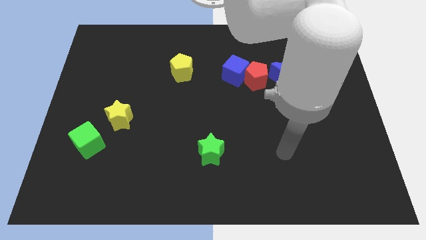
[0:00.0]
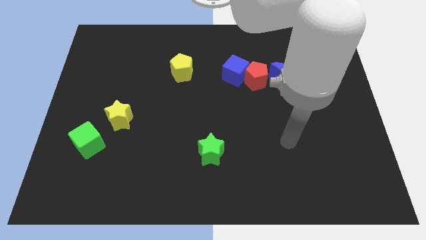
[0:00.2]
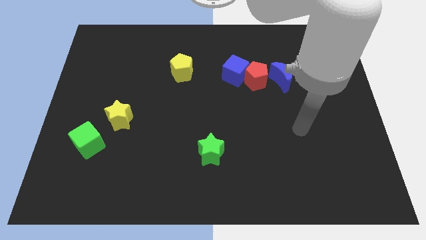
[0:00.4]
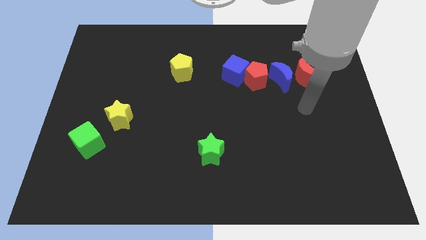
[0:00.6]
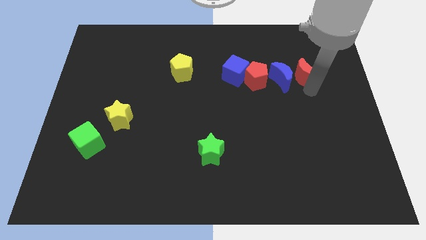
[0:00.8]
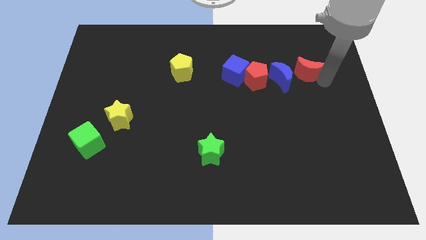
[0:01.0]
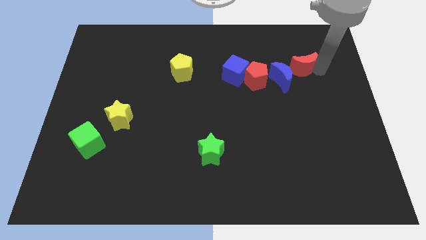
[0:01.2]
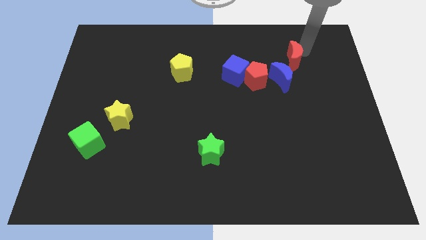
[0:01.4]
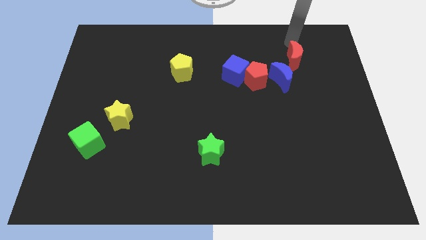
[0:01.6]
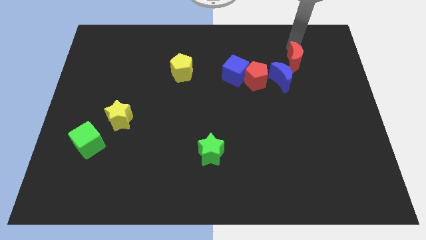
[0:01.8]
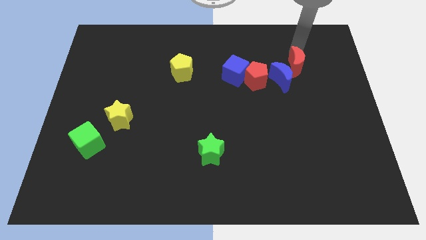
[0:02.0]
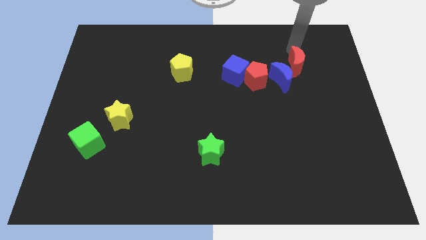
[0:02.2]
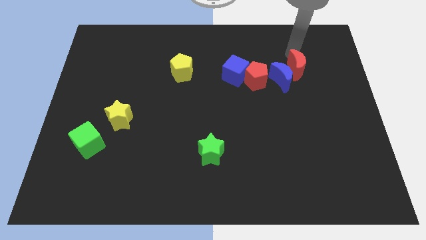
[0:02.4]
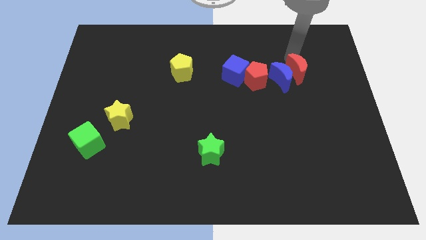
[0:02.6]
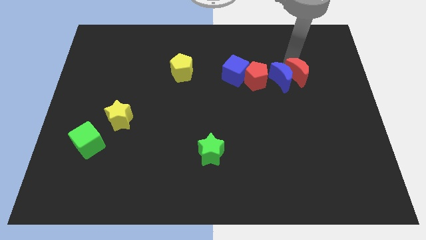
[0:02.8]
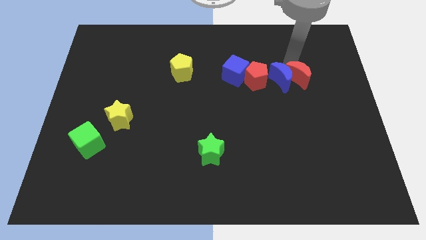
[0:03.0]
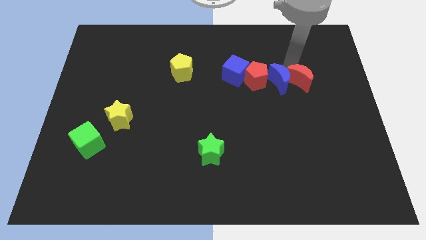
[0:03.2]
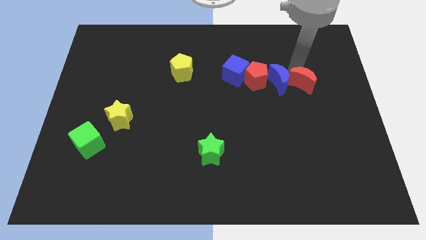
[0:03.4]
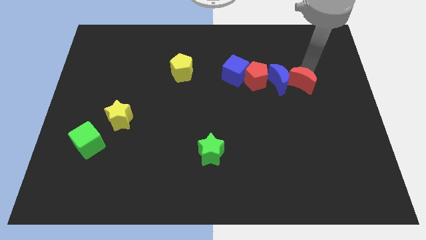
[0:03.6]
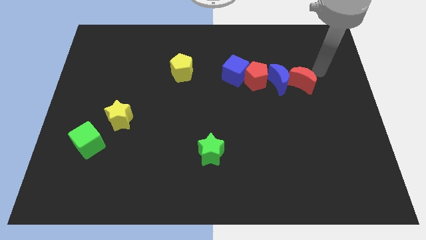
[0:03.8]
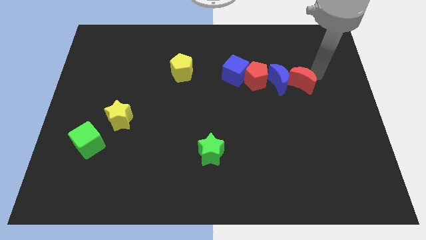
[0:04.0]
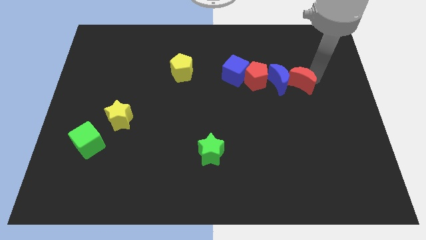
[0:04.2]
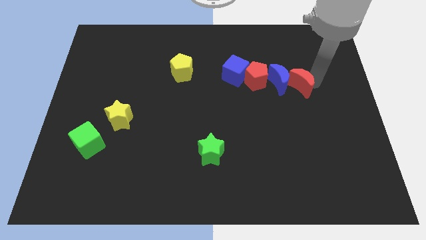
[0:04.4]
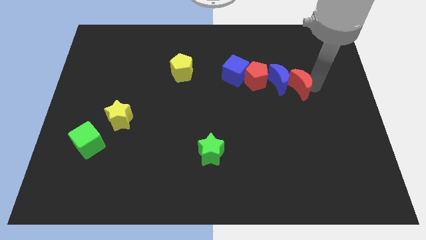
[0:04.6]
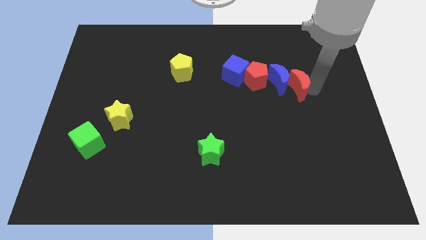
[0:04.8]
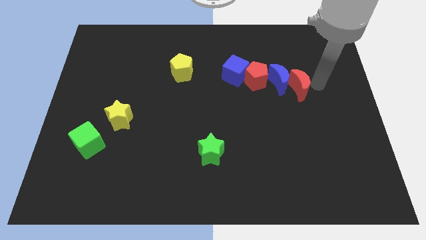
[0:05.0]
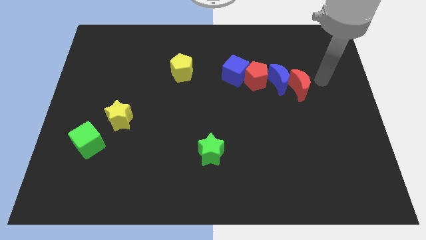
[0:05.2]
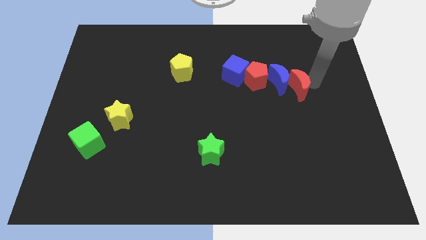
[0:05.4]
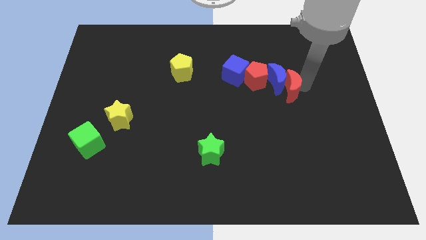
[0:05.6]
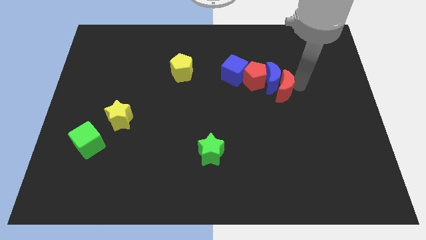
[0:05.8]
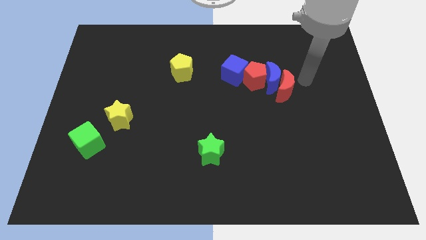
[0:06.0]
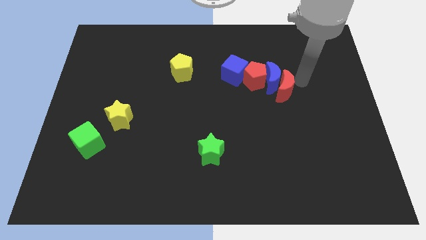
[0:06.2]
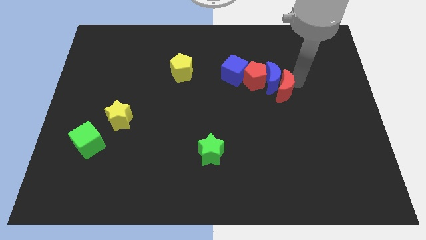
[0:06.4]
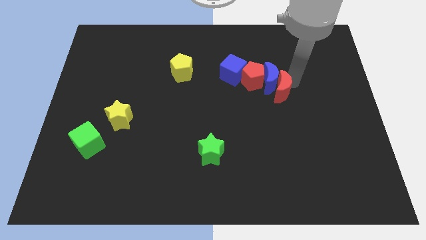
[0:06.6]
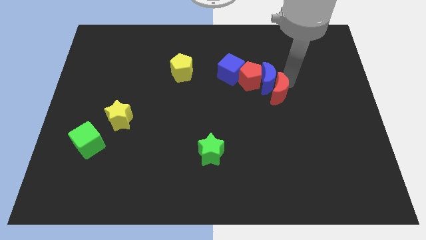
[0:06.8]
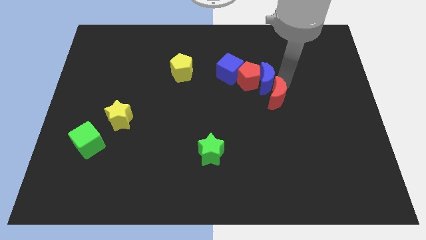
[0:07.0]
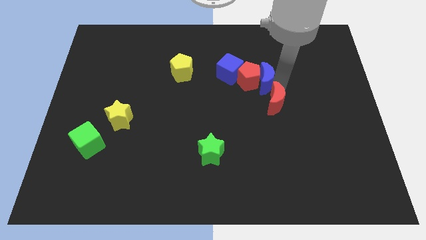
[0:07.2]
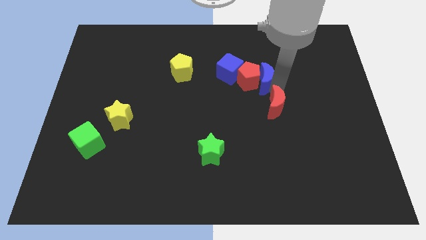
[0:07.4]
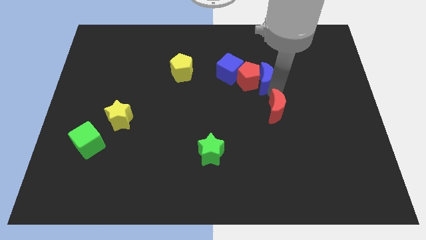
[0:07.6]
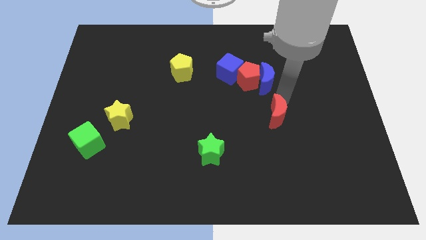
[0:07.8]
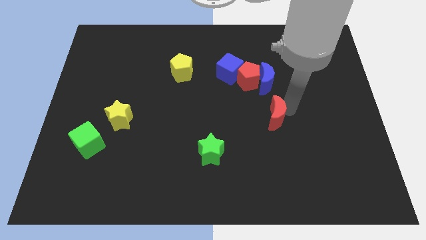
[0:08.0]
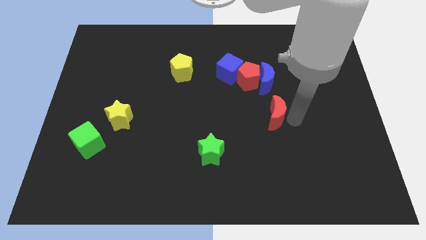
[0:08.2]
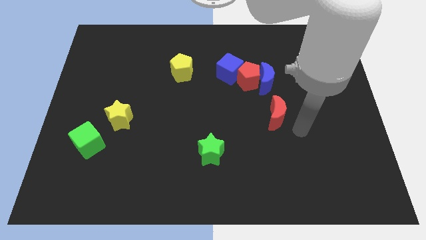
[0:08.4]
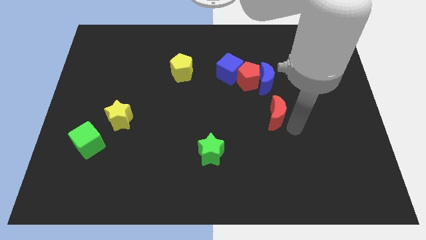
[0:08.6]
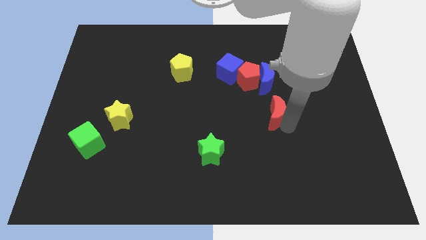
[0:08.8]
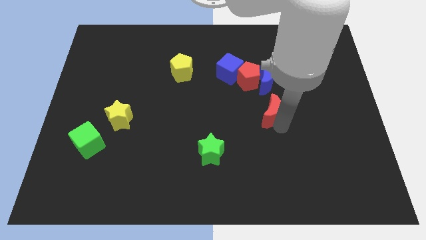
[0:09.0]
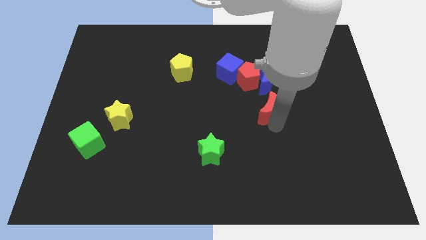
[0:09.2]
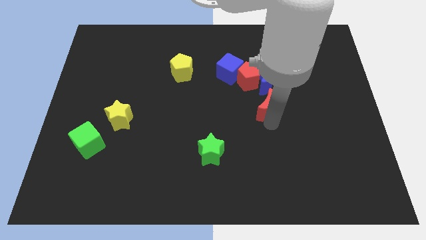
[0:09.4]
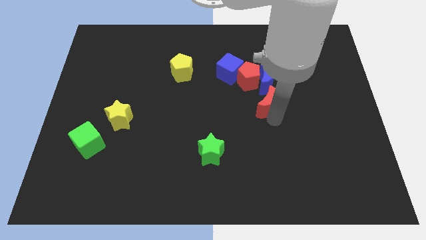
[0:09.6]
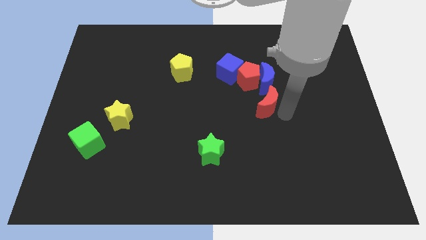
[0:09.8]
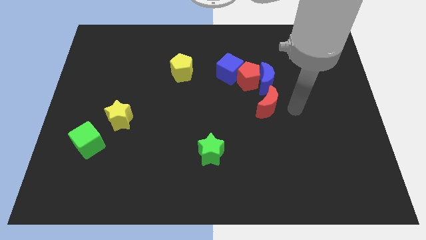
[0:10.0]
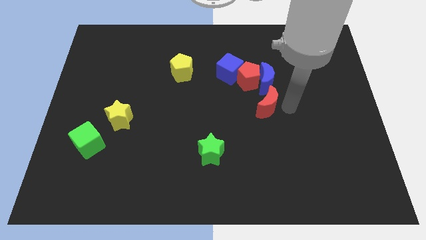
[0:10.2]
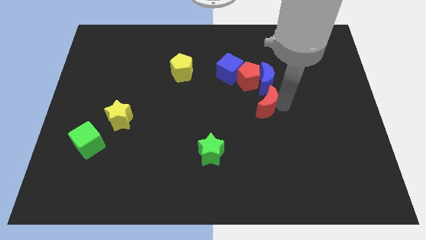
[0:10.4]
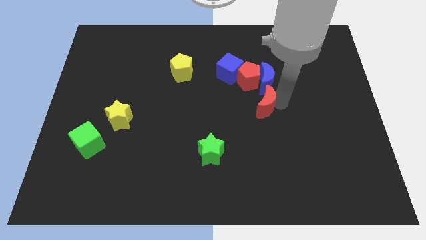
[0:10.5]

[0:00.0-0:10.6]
move the red moon to the center of the board

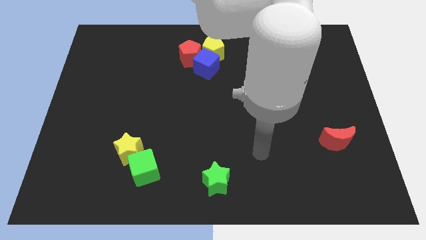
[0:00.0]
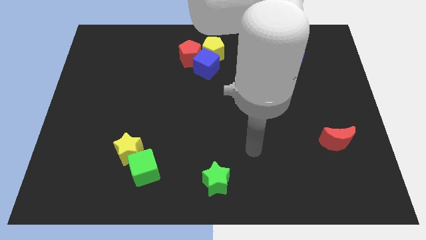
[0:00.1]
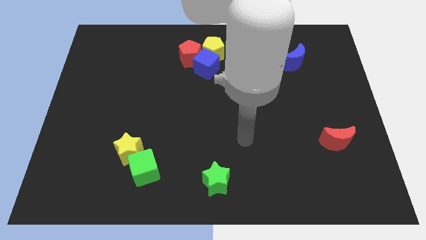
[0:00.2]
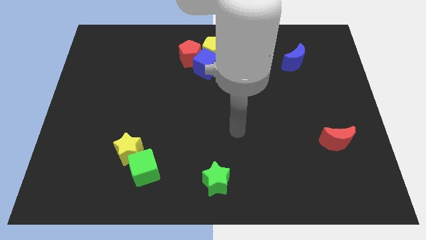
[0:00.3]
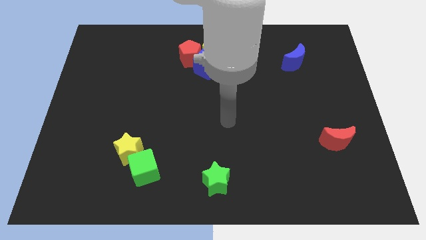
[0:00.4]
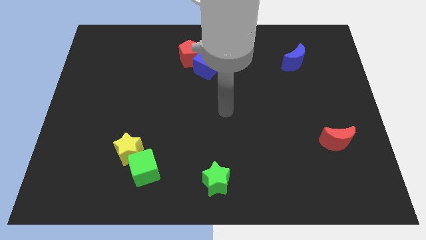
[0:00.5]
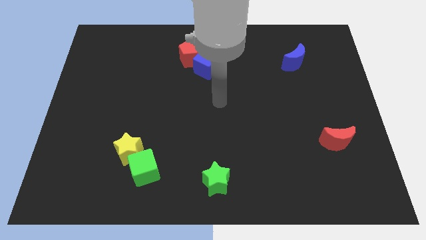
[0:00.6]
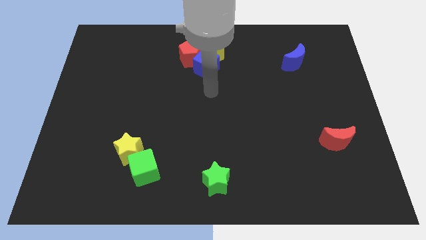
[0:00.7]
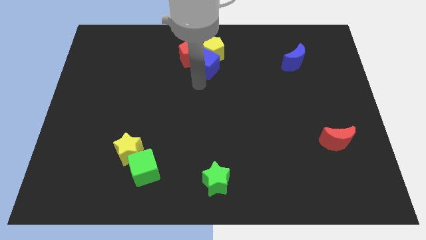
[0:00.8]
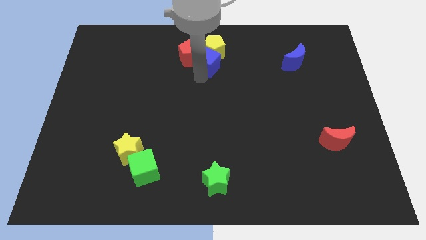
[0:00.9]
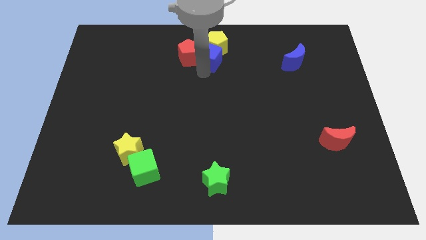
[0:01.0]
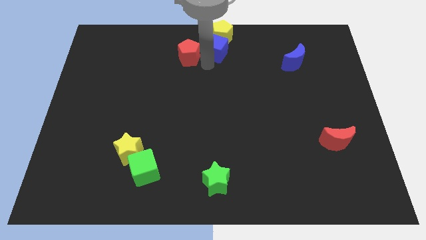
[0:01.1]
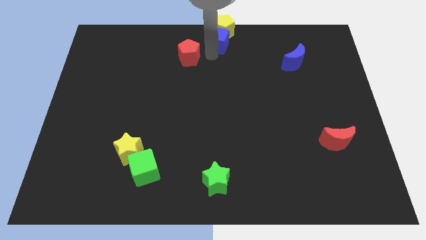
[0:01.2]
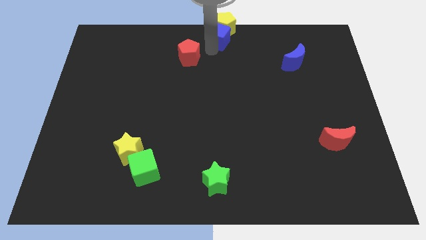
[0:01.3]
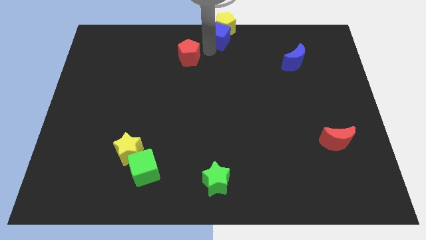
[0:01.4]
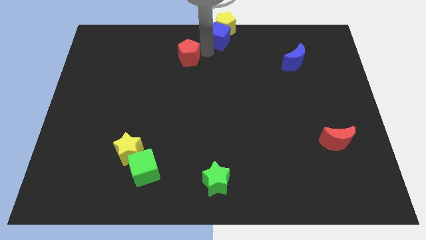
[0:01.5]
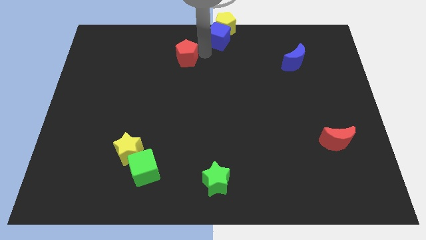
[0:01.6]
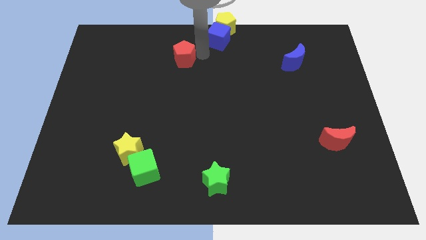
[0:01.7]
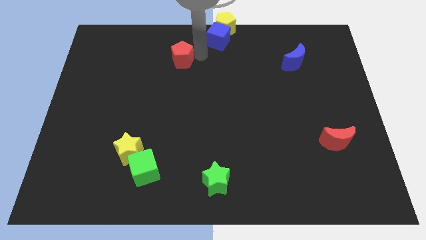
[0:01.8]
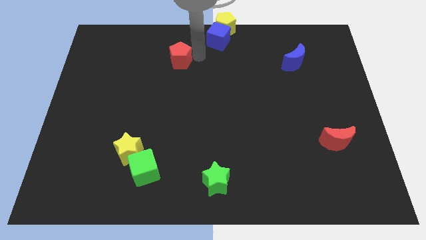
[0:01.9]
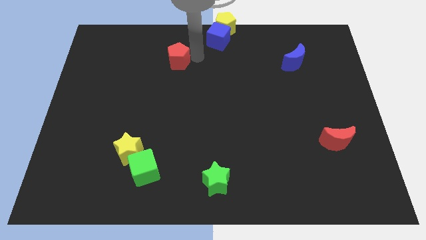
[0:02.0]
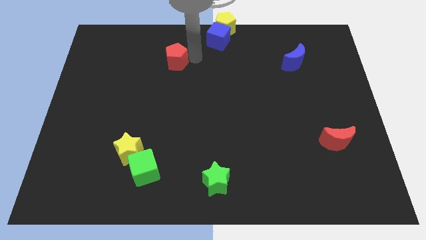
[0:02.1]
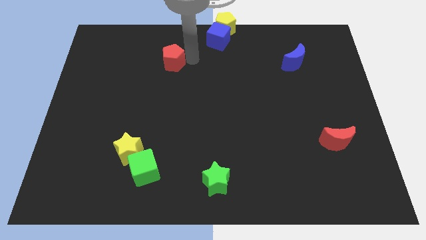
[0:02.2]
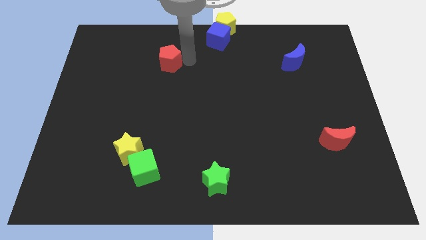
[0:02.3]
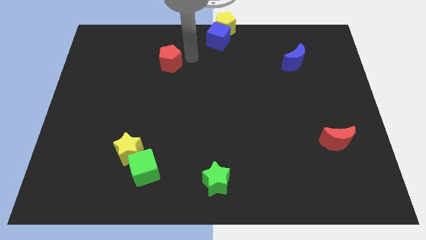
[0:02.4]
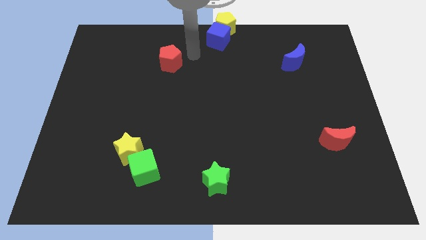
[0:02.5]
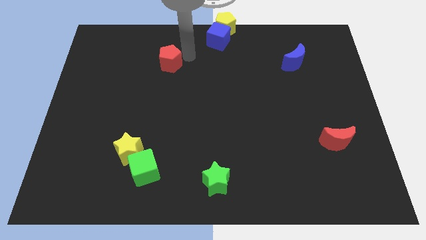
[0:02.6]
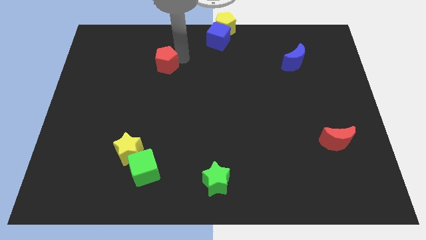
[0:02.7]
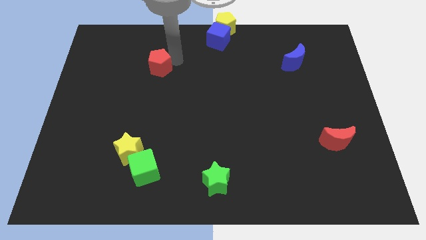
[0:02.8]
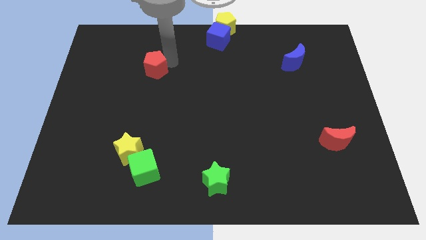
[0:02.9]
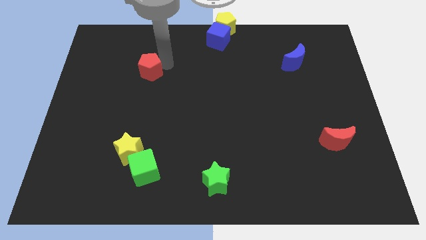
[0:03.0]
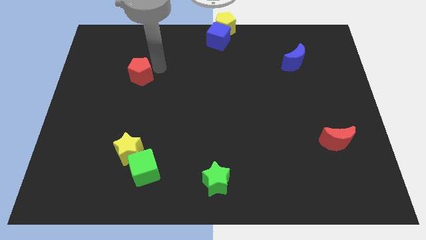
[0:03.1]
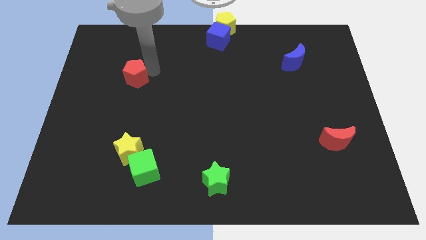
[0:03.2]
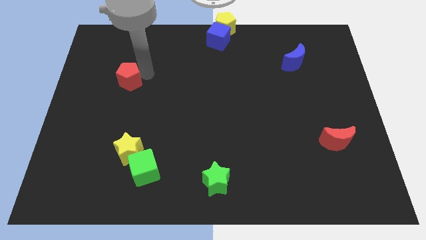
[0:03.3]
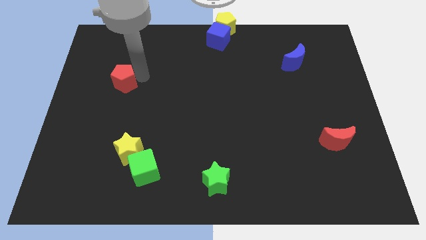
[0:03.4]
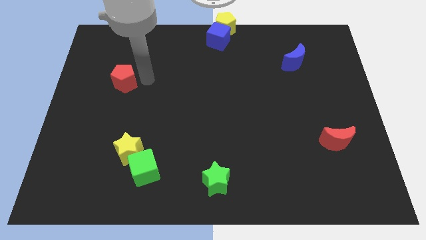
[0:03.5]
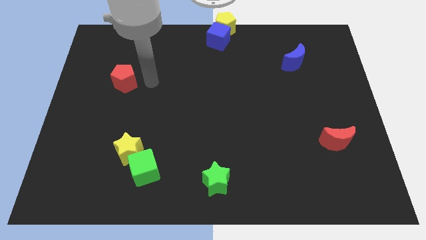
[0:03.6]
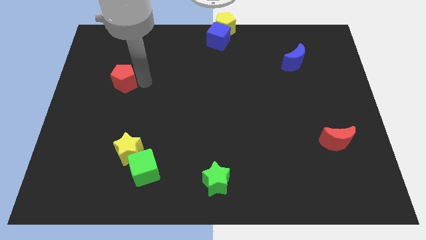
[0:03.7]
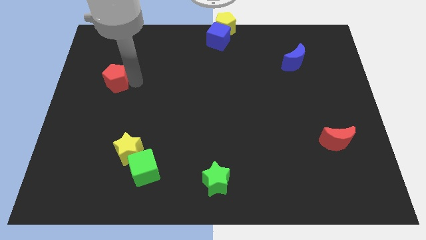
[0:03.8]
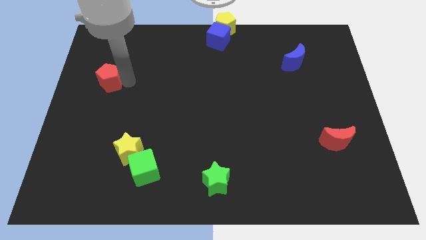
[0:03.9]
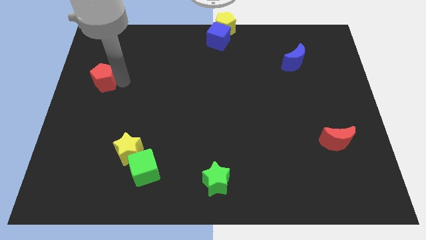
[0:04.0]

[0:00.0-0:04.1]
put the red pentagon to the center left
